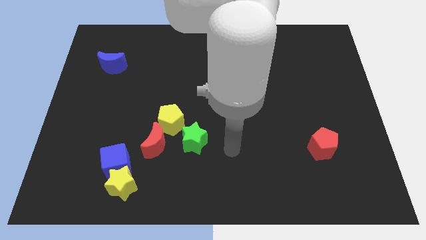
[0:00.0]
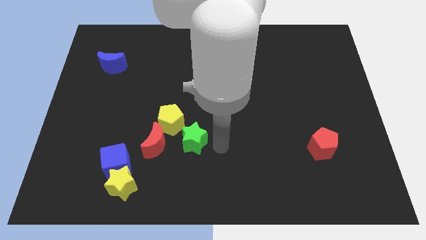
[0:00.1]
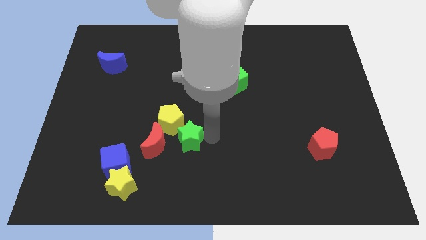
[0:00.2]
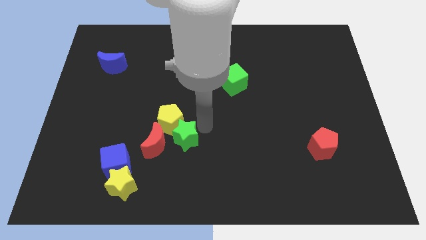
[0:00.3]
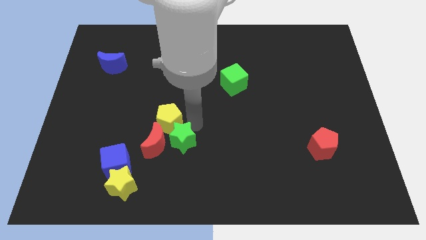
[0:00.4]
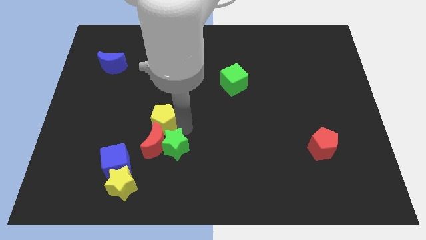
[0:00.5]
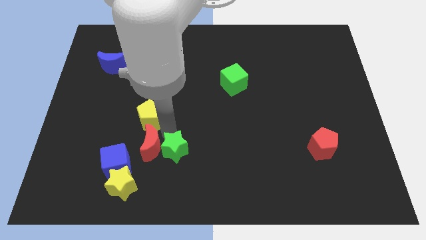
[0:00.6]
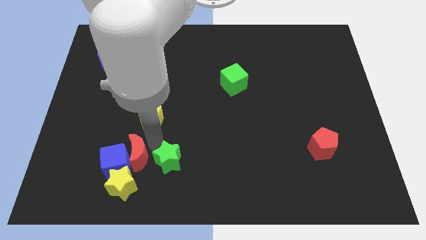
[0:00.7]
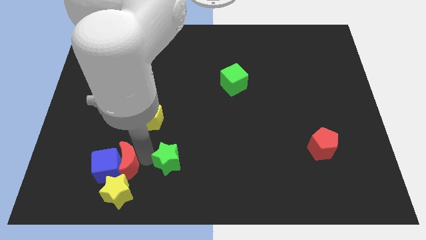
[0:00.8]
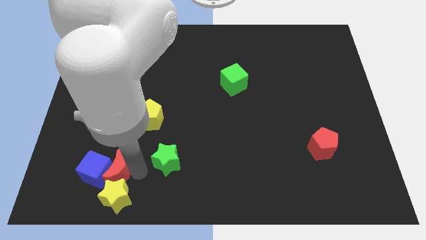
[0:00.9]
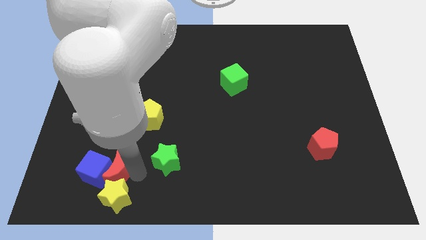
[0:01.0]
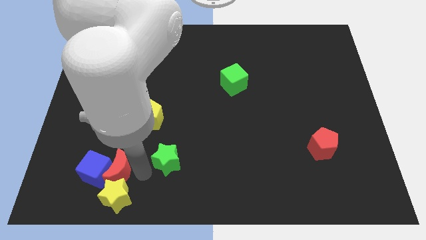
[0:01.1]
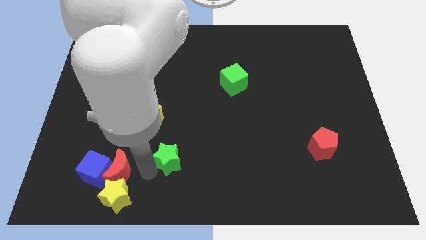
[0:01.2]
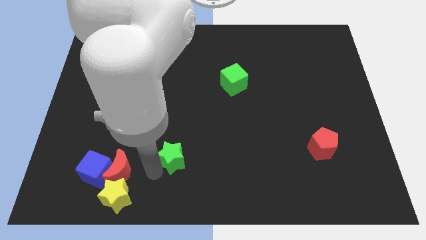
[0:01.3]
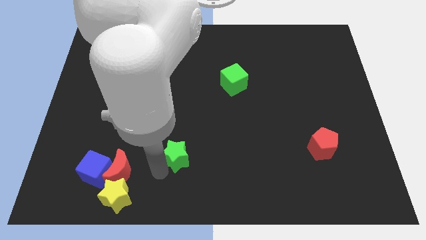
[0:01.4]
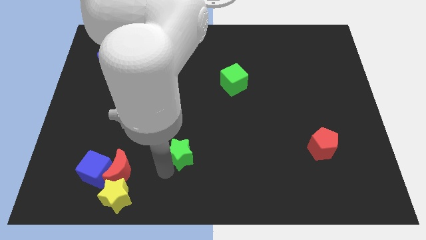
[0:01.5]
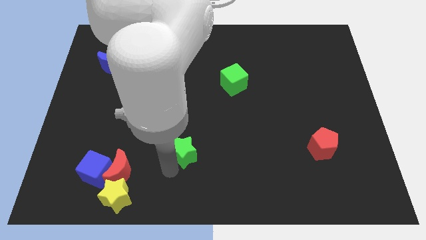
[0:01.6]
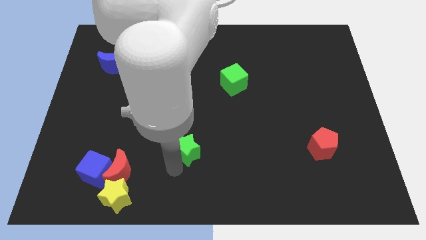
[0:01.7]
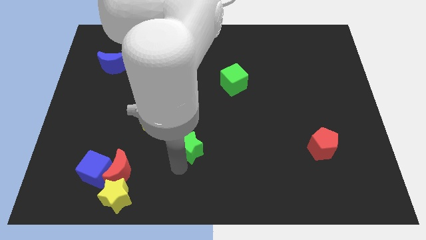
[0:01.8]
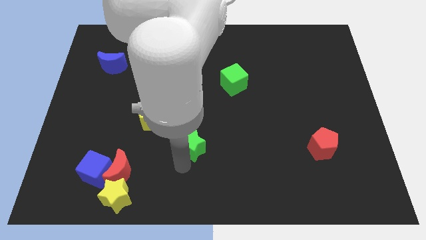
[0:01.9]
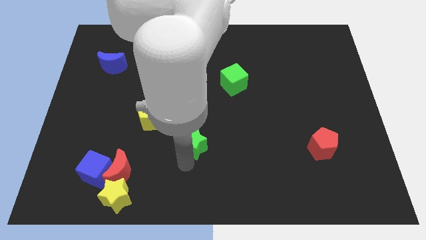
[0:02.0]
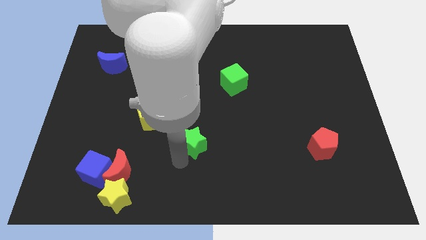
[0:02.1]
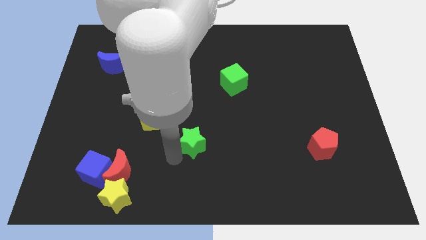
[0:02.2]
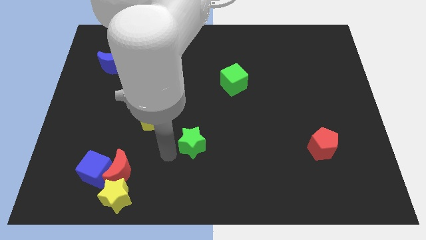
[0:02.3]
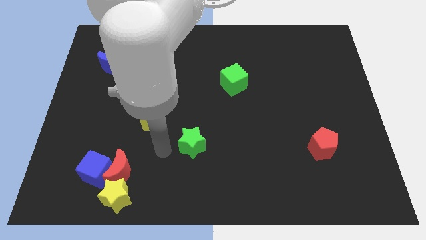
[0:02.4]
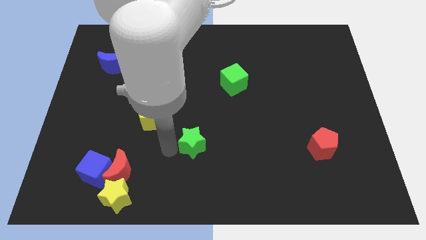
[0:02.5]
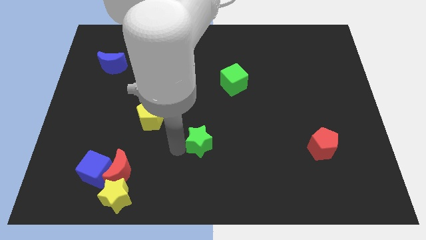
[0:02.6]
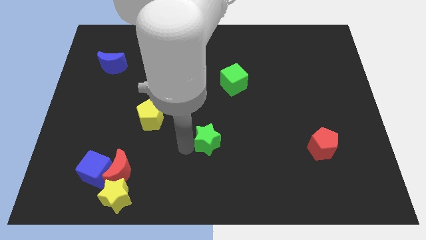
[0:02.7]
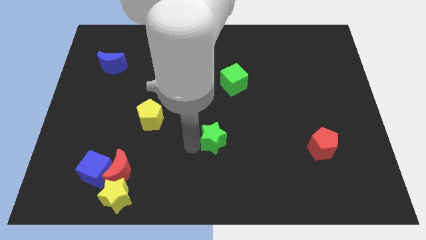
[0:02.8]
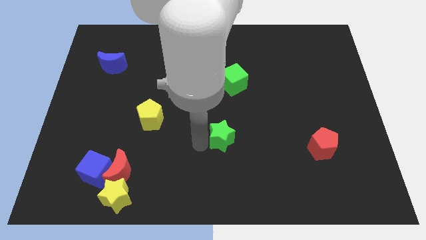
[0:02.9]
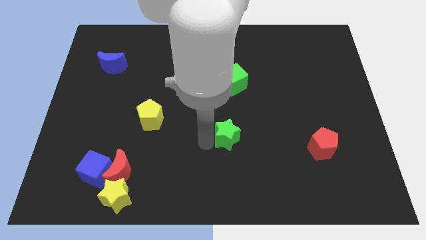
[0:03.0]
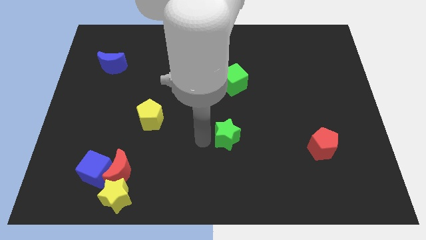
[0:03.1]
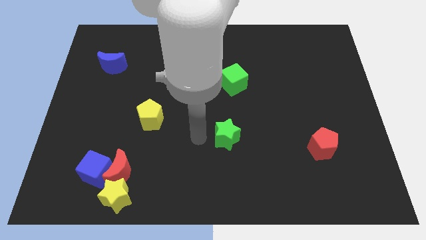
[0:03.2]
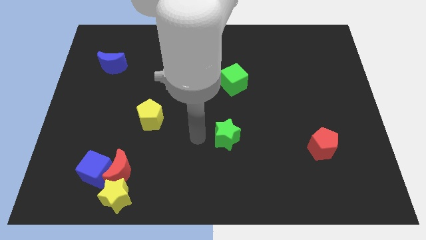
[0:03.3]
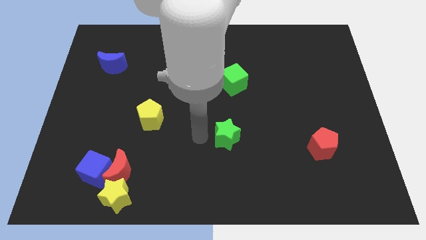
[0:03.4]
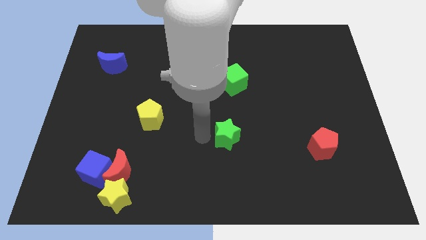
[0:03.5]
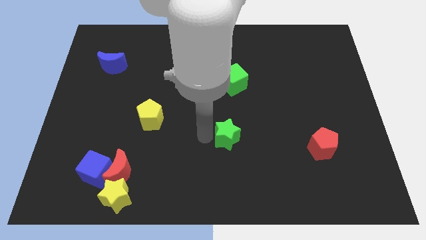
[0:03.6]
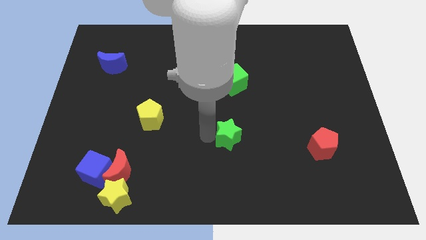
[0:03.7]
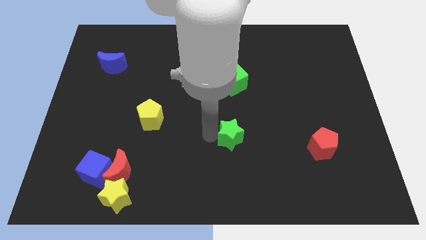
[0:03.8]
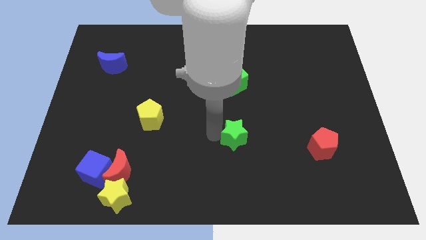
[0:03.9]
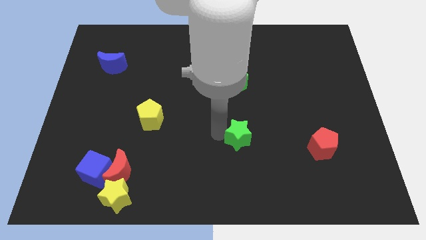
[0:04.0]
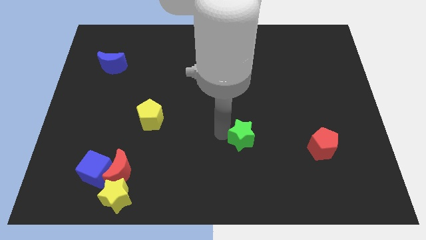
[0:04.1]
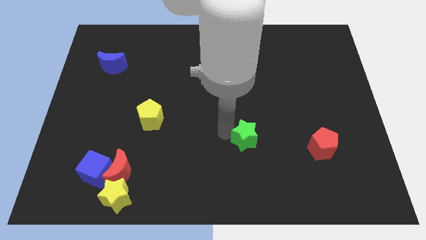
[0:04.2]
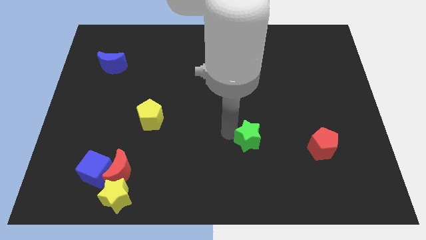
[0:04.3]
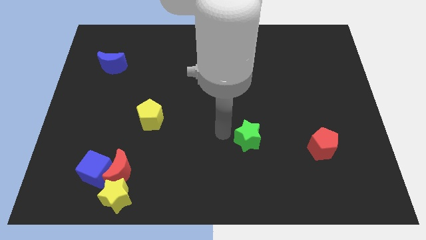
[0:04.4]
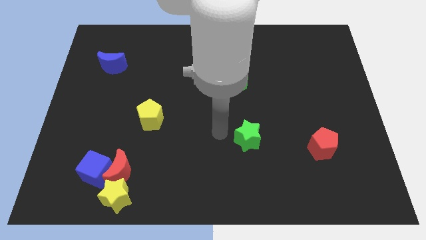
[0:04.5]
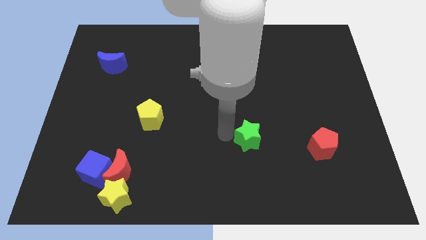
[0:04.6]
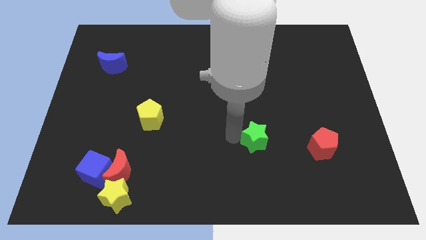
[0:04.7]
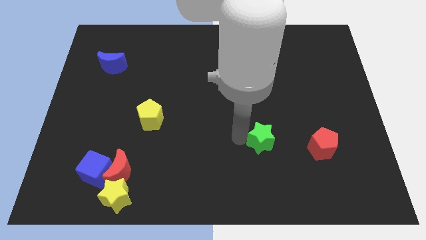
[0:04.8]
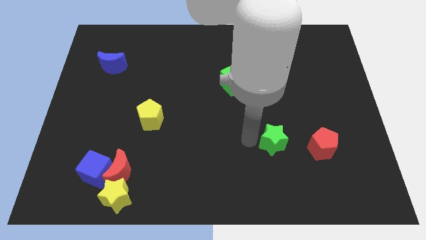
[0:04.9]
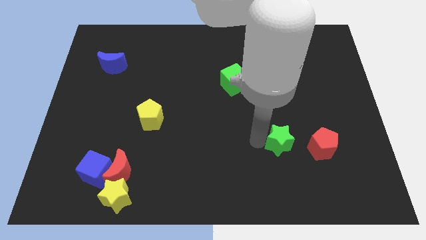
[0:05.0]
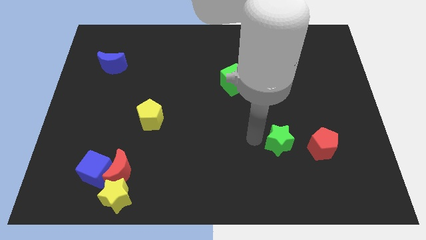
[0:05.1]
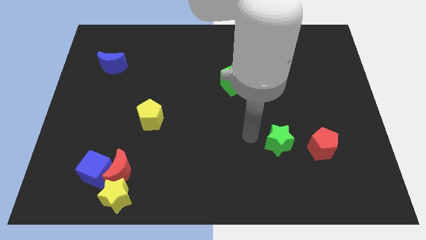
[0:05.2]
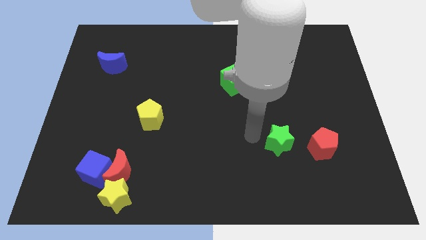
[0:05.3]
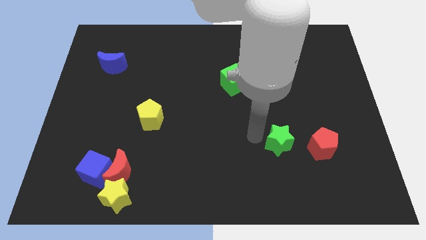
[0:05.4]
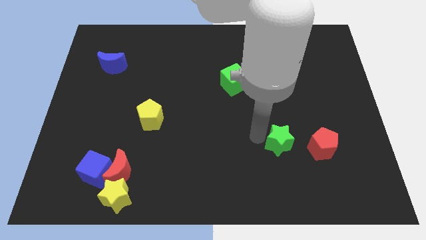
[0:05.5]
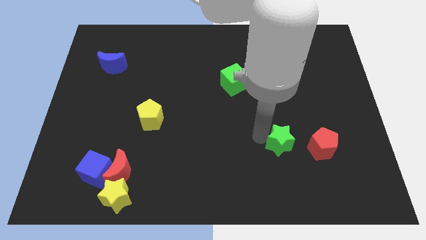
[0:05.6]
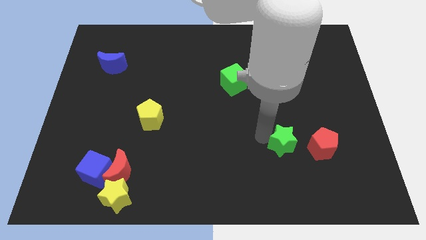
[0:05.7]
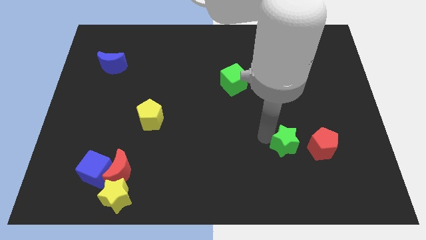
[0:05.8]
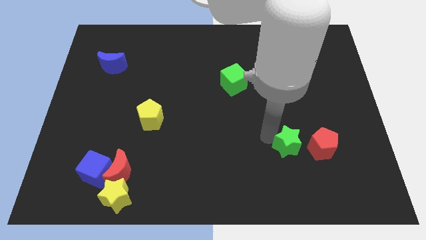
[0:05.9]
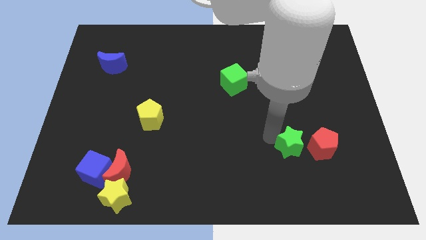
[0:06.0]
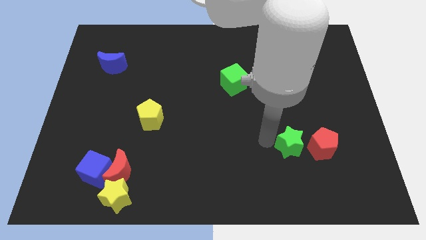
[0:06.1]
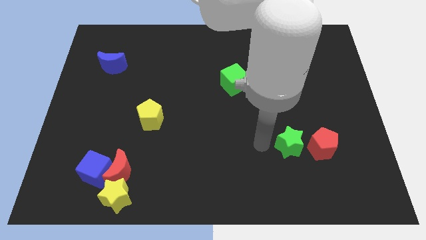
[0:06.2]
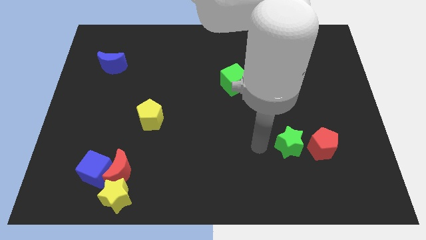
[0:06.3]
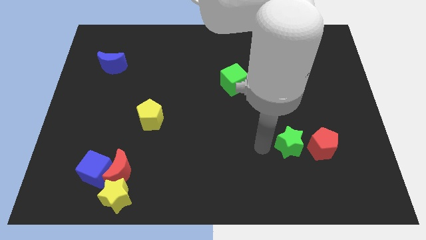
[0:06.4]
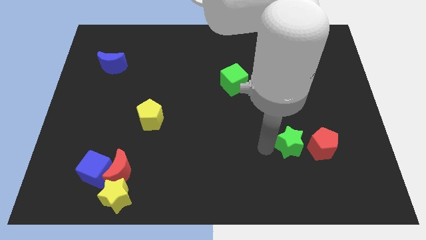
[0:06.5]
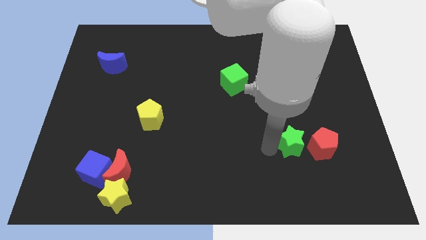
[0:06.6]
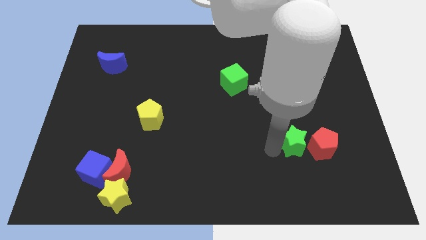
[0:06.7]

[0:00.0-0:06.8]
slide the green star close to the red pentagon
